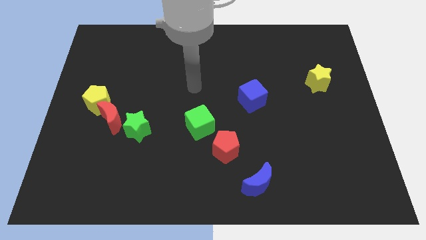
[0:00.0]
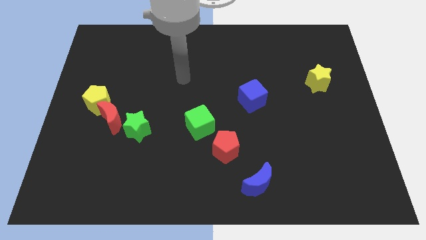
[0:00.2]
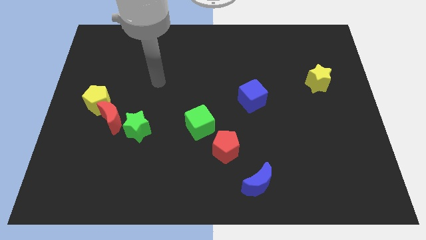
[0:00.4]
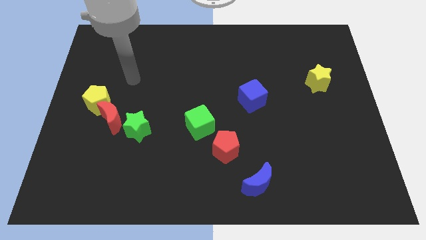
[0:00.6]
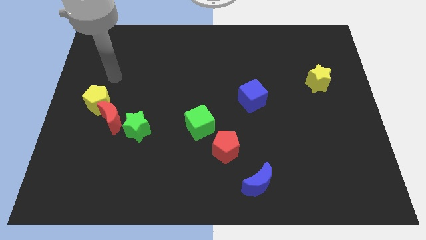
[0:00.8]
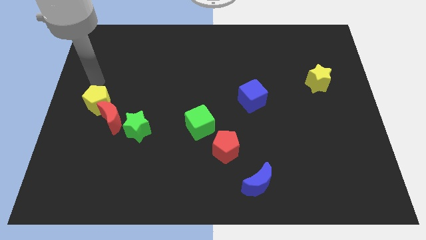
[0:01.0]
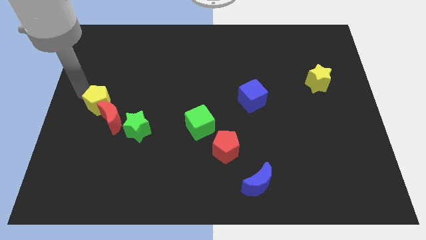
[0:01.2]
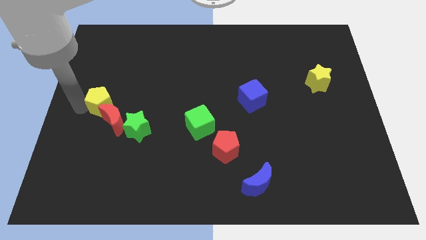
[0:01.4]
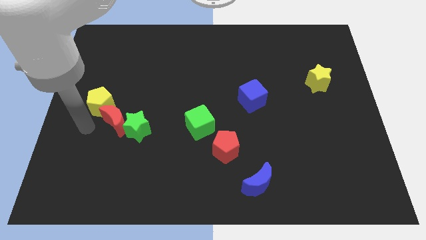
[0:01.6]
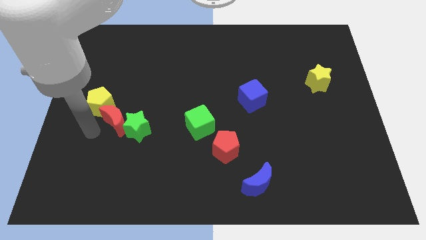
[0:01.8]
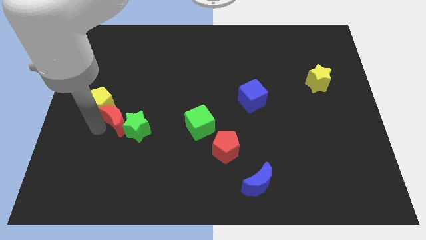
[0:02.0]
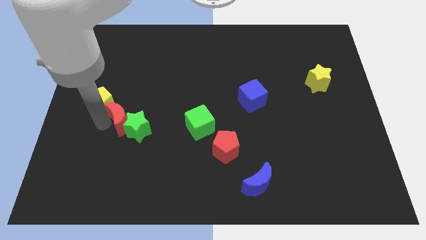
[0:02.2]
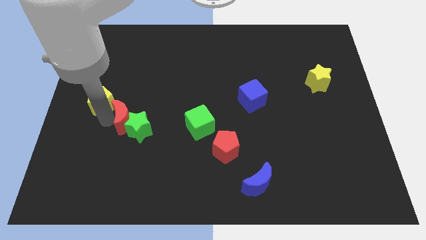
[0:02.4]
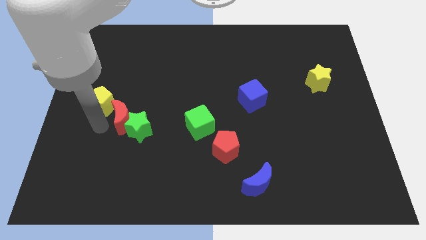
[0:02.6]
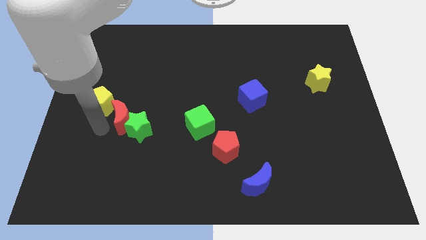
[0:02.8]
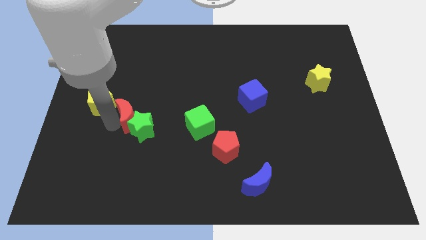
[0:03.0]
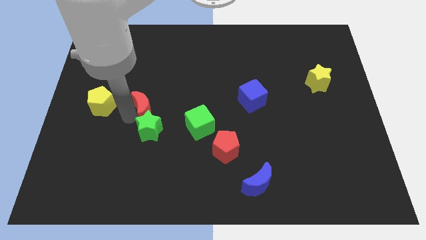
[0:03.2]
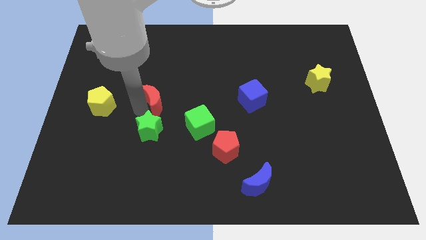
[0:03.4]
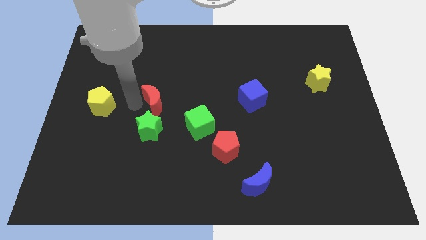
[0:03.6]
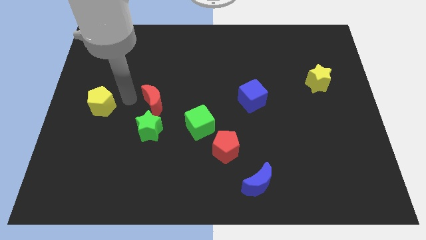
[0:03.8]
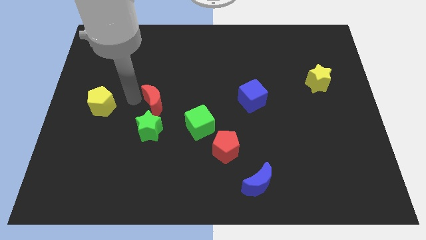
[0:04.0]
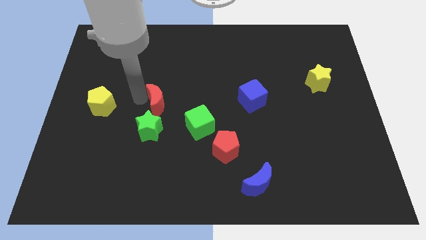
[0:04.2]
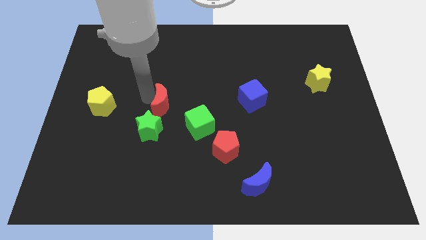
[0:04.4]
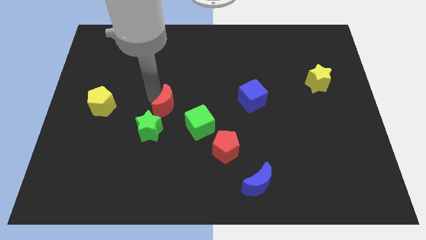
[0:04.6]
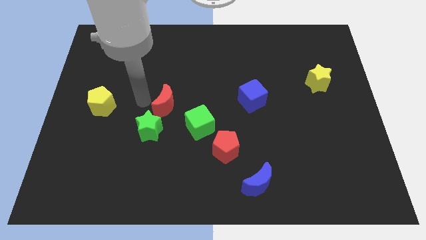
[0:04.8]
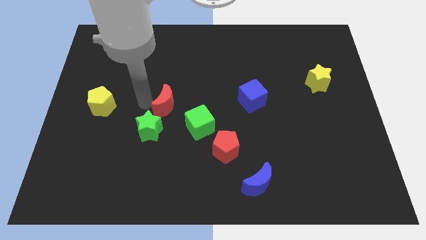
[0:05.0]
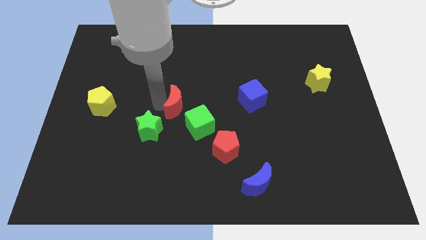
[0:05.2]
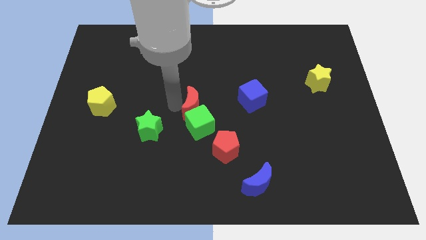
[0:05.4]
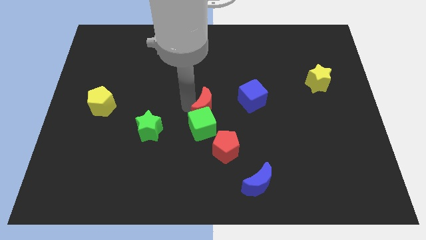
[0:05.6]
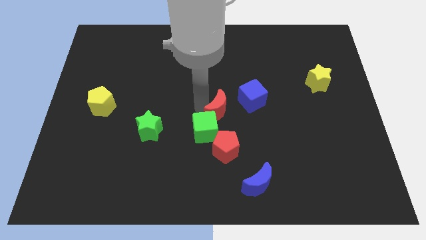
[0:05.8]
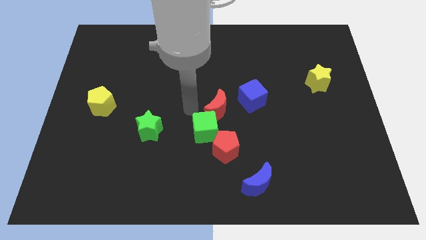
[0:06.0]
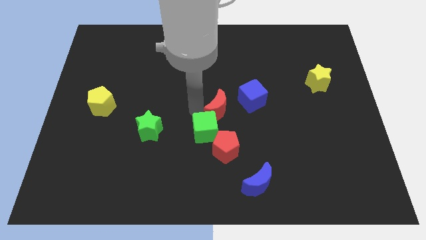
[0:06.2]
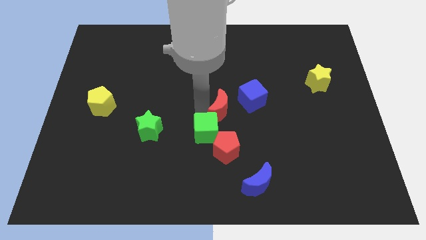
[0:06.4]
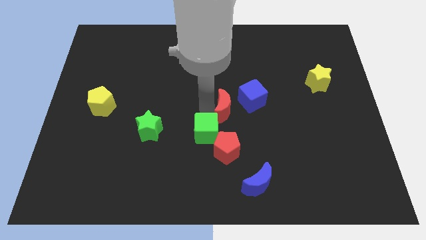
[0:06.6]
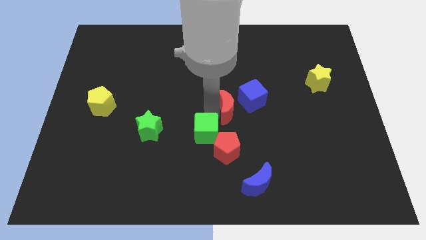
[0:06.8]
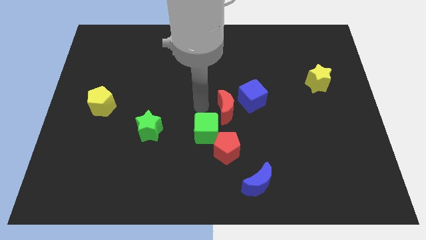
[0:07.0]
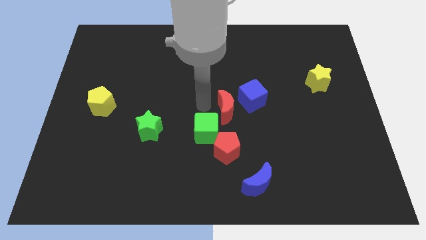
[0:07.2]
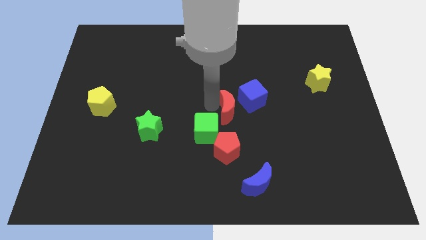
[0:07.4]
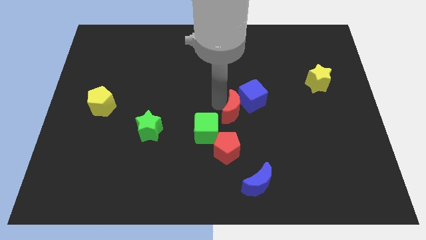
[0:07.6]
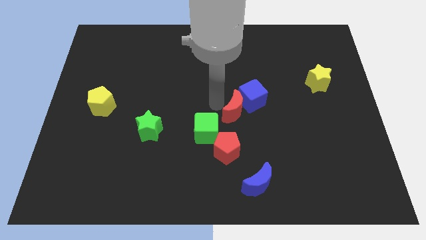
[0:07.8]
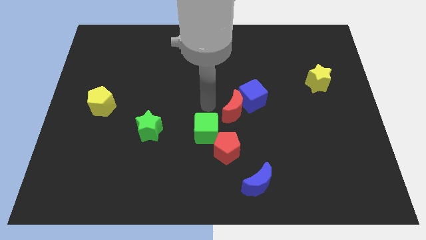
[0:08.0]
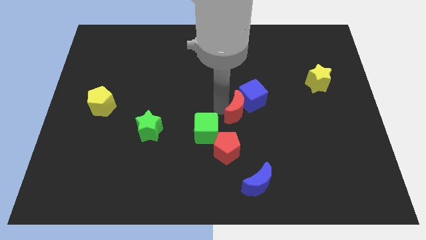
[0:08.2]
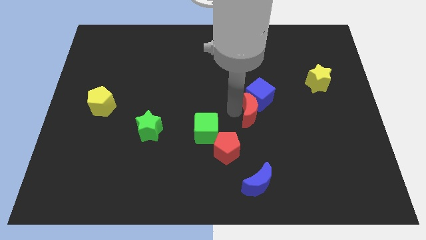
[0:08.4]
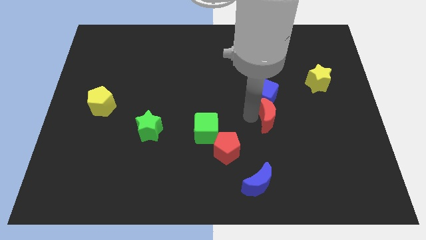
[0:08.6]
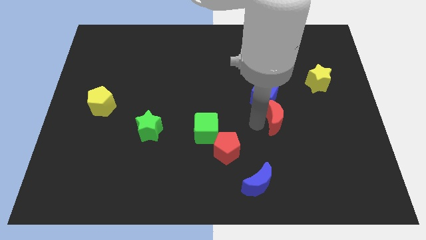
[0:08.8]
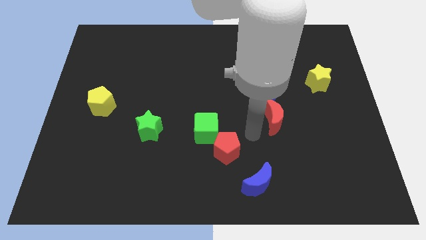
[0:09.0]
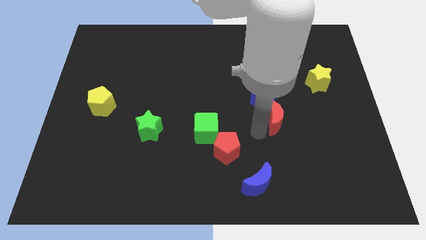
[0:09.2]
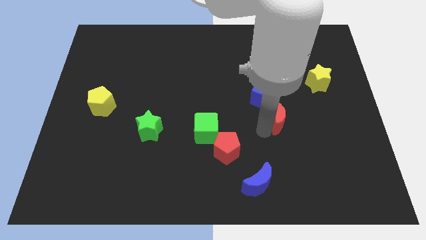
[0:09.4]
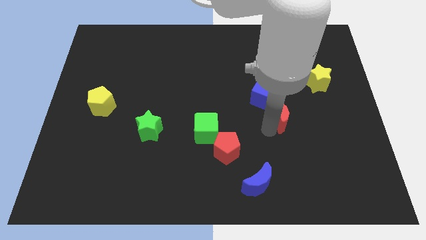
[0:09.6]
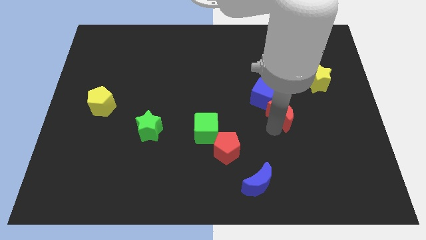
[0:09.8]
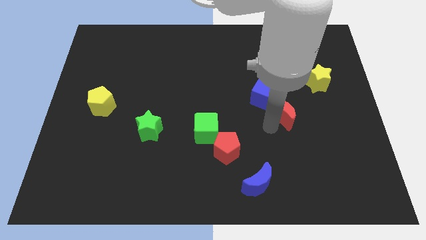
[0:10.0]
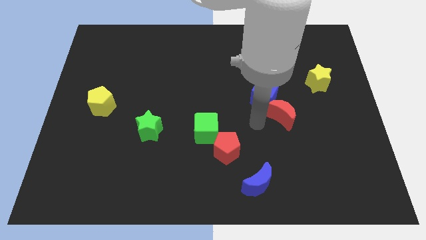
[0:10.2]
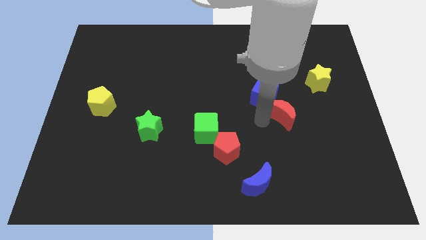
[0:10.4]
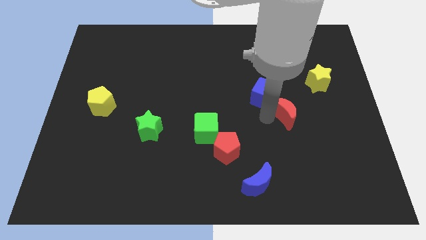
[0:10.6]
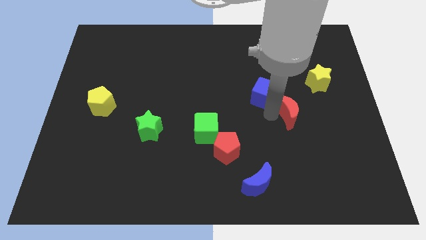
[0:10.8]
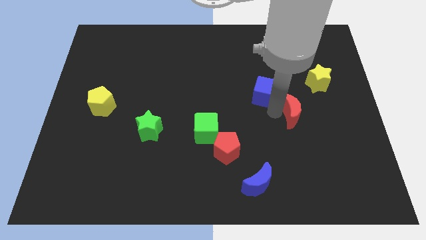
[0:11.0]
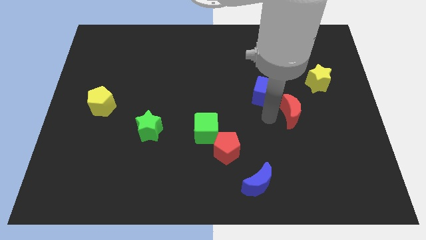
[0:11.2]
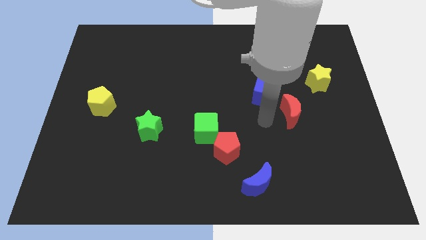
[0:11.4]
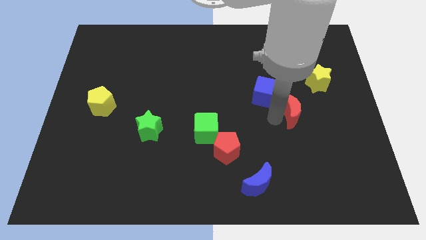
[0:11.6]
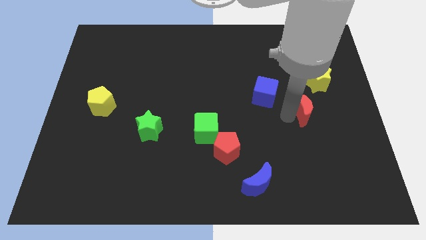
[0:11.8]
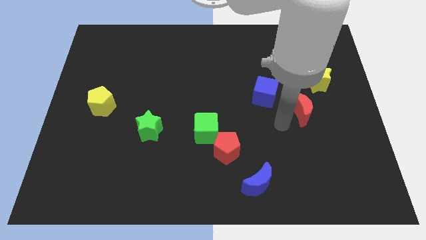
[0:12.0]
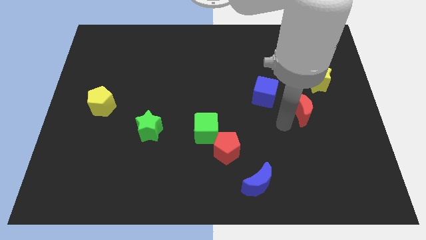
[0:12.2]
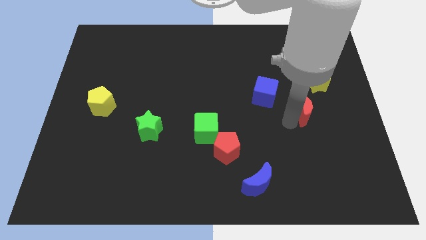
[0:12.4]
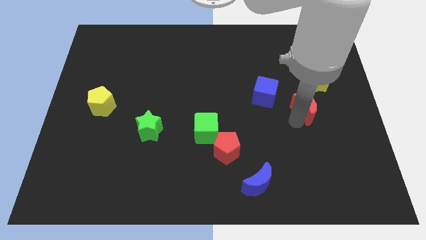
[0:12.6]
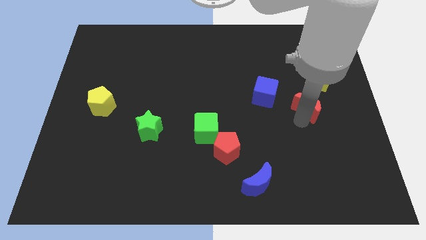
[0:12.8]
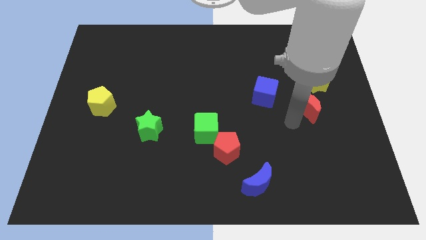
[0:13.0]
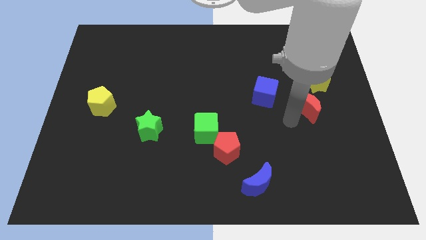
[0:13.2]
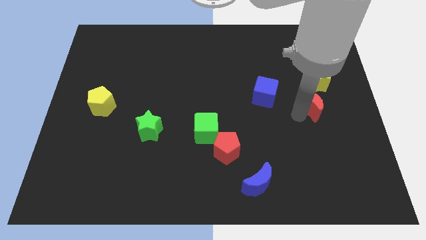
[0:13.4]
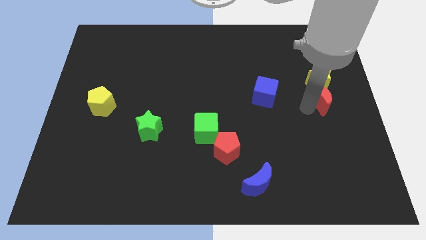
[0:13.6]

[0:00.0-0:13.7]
push the red moon to the center right
